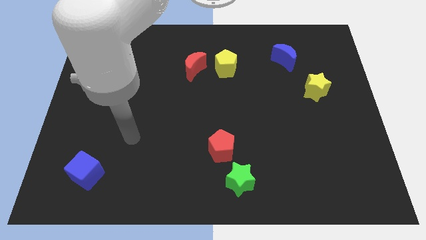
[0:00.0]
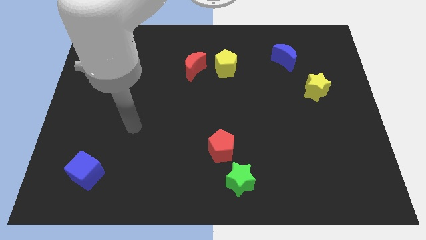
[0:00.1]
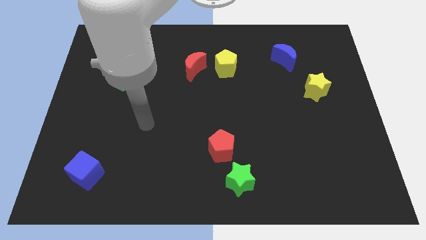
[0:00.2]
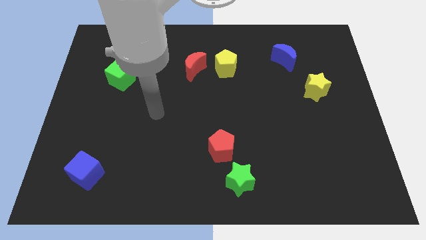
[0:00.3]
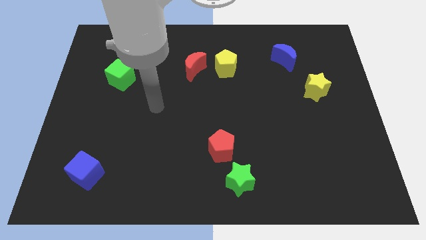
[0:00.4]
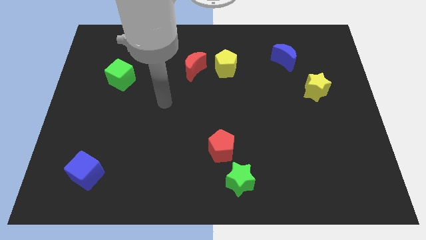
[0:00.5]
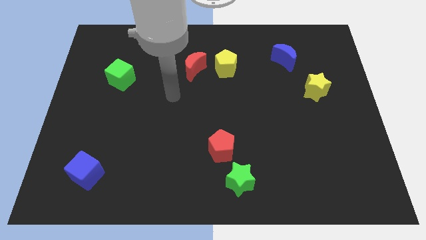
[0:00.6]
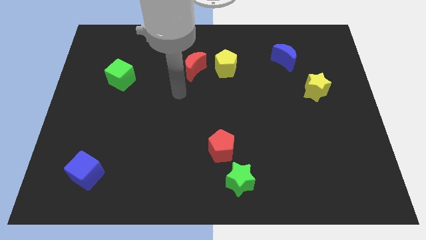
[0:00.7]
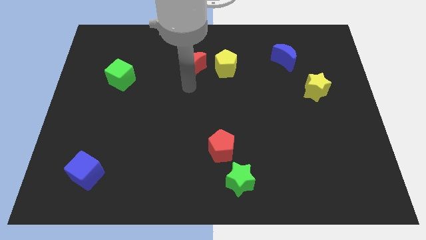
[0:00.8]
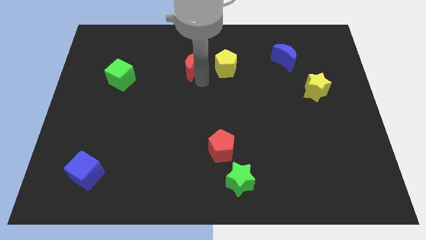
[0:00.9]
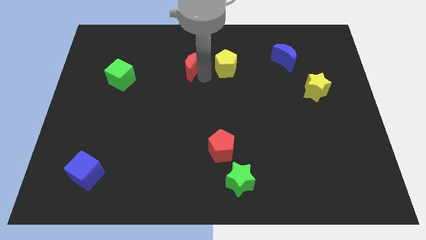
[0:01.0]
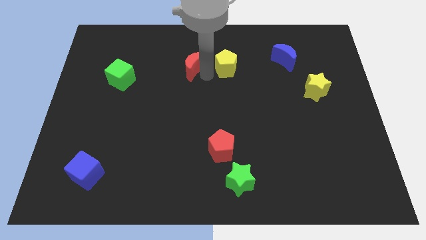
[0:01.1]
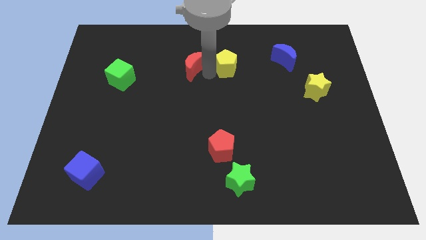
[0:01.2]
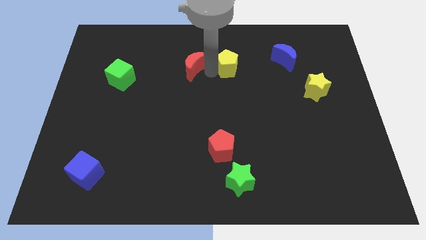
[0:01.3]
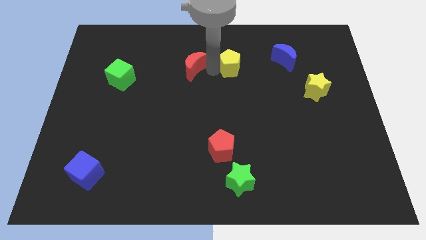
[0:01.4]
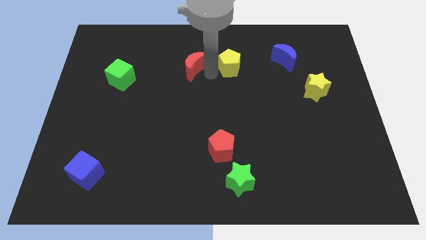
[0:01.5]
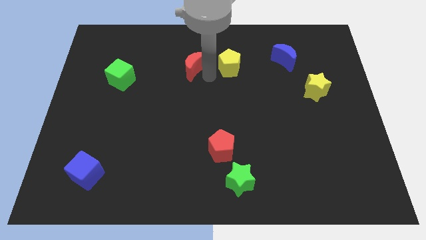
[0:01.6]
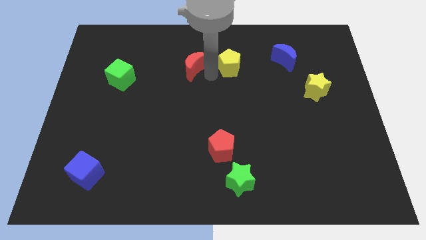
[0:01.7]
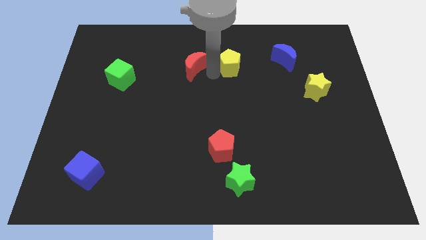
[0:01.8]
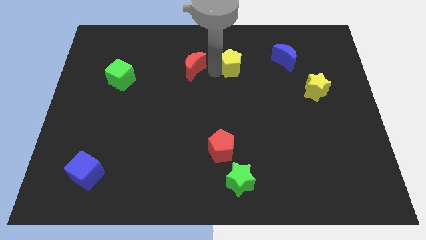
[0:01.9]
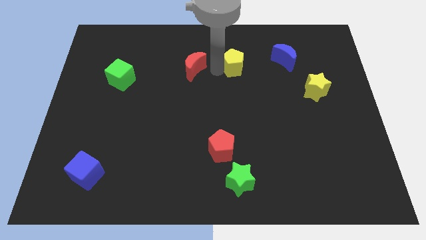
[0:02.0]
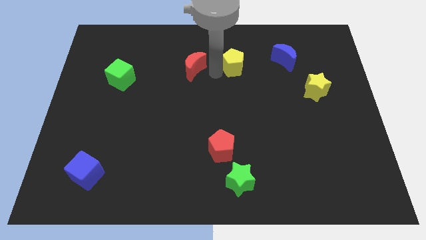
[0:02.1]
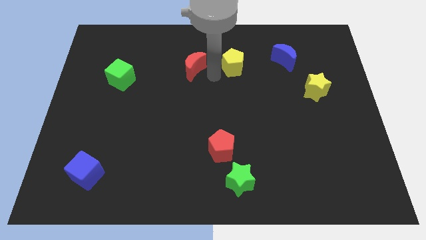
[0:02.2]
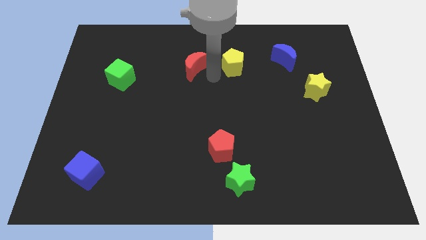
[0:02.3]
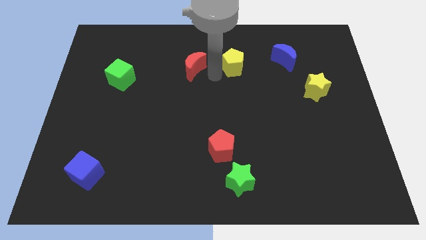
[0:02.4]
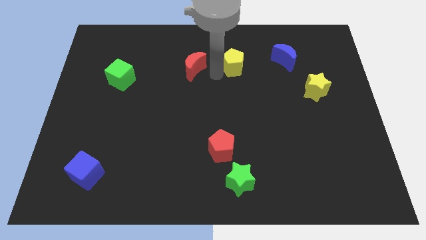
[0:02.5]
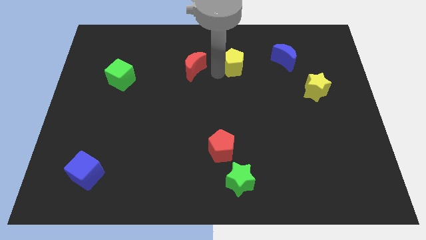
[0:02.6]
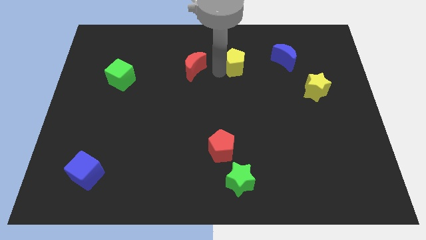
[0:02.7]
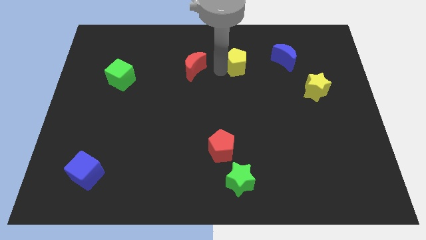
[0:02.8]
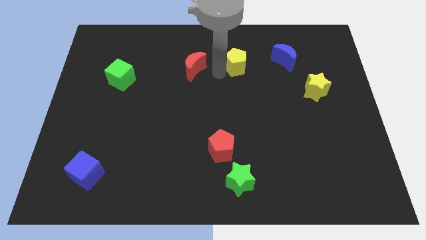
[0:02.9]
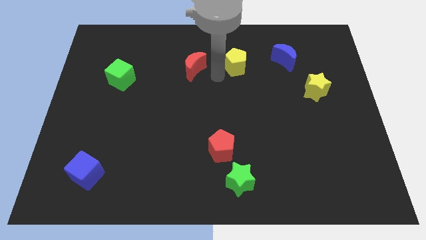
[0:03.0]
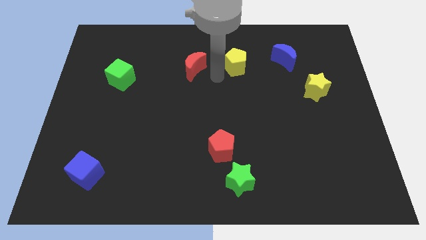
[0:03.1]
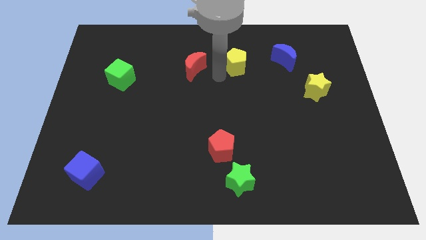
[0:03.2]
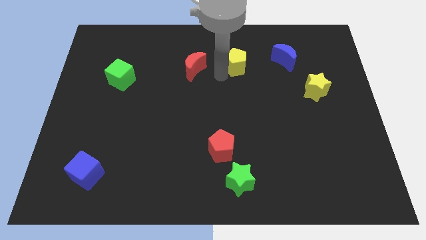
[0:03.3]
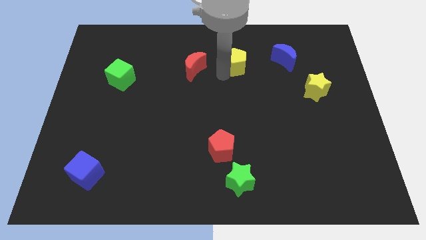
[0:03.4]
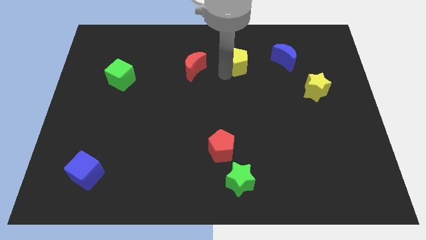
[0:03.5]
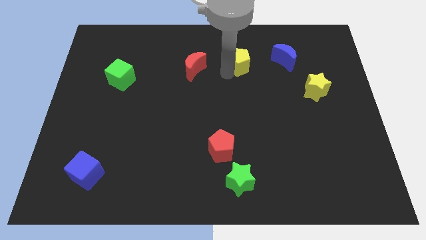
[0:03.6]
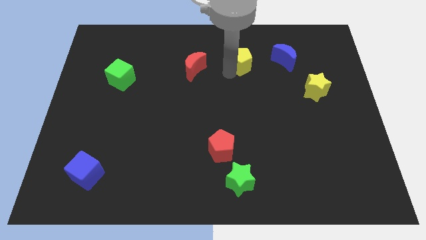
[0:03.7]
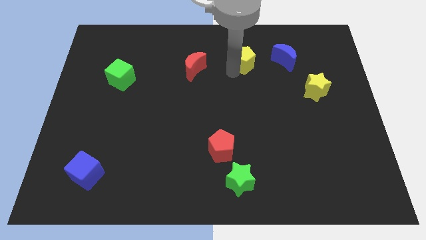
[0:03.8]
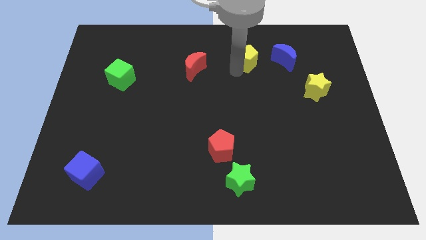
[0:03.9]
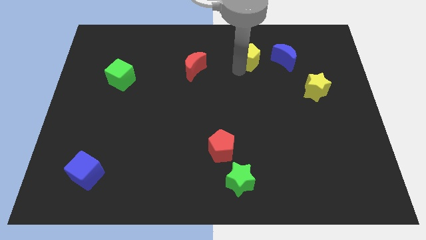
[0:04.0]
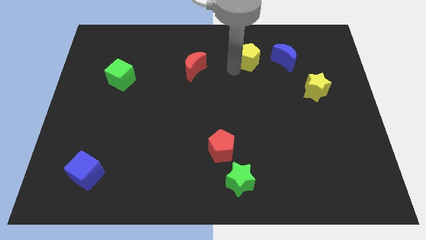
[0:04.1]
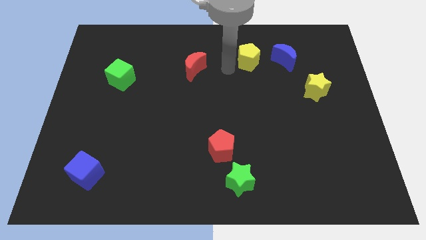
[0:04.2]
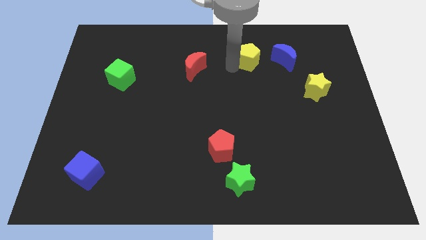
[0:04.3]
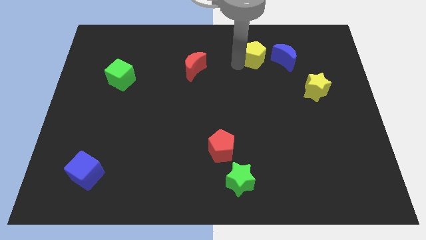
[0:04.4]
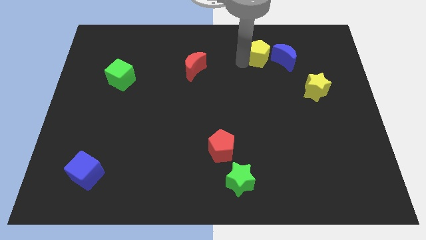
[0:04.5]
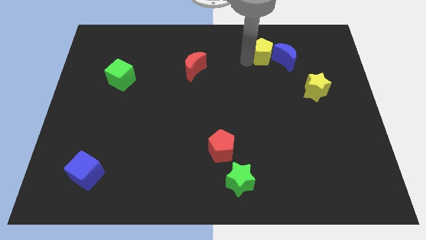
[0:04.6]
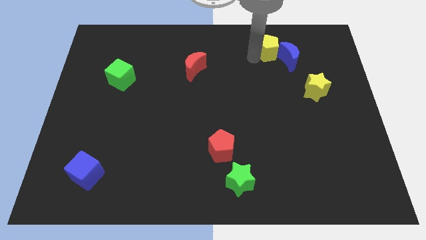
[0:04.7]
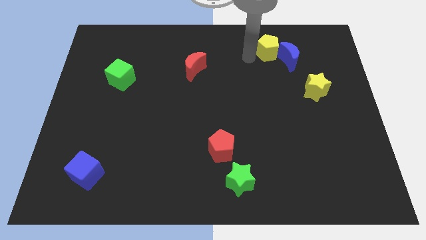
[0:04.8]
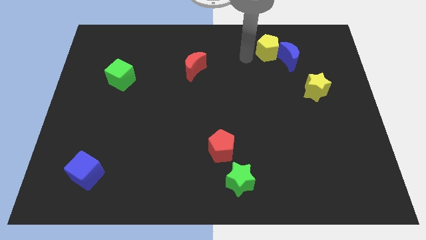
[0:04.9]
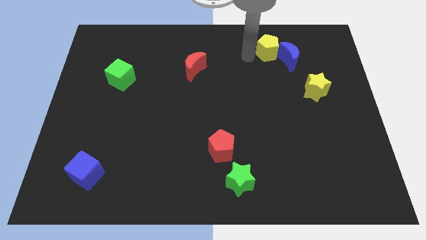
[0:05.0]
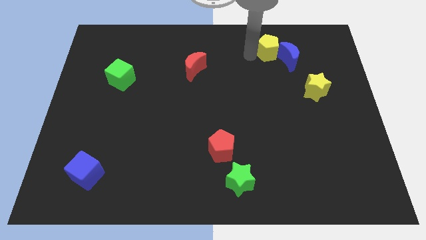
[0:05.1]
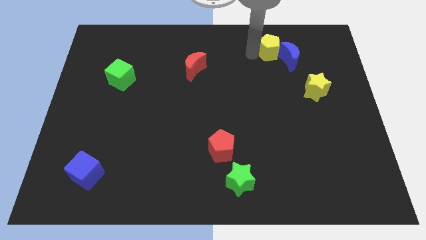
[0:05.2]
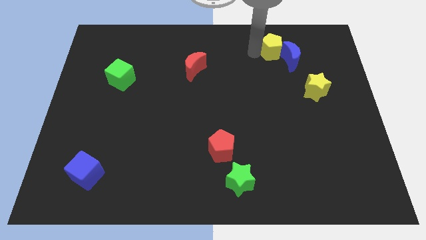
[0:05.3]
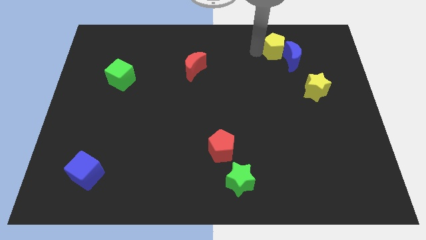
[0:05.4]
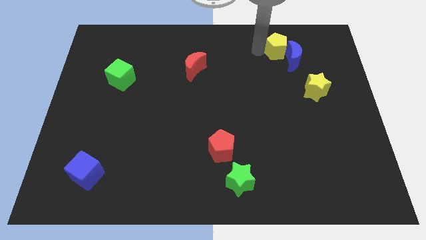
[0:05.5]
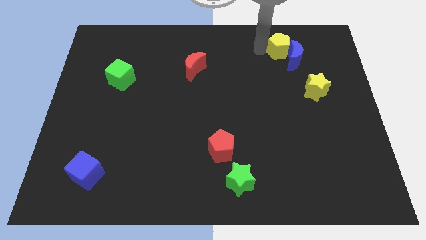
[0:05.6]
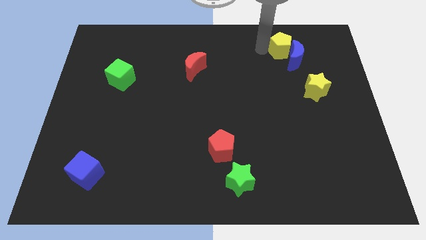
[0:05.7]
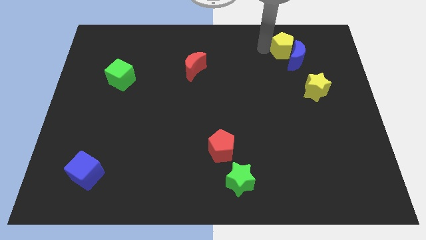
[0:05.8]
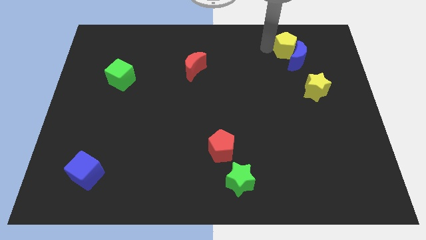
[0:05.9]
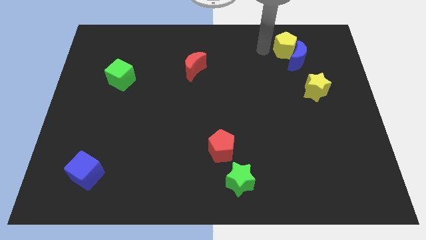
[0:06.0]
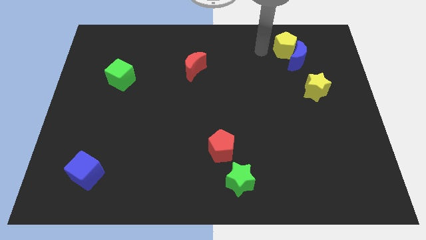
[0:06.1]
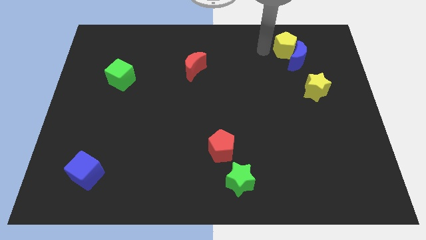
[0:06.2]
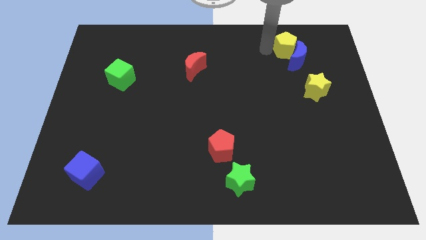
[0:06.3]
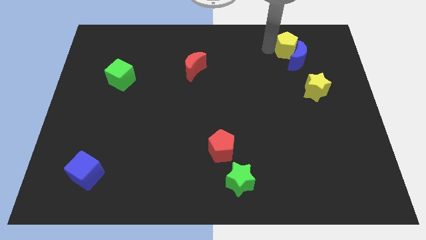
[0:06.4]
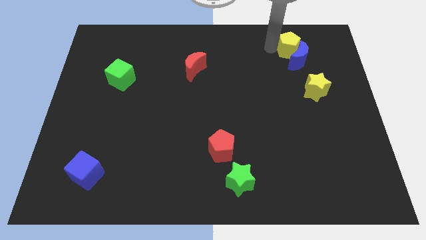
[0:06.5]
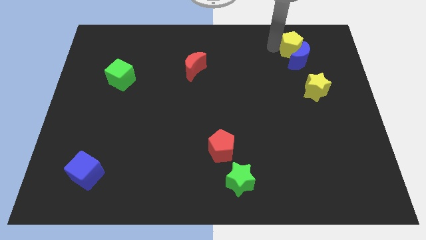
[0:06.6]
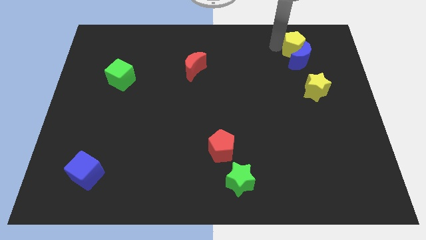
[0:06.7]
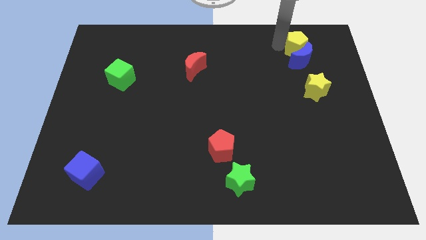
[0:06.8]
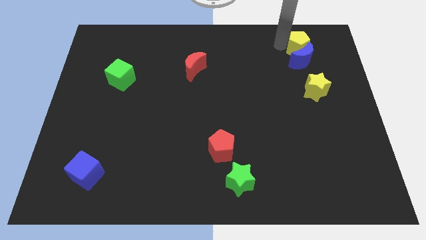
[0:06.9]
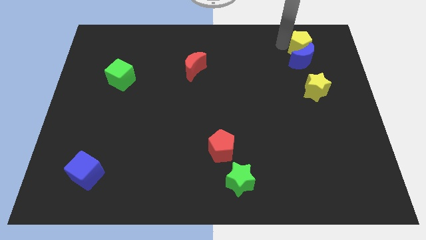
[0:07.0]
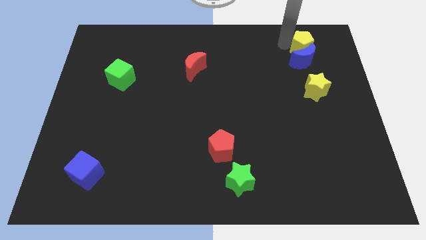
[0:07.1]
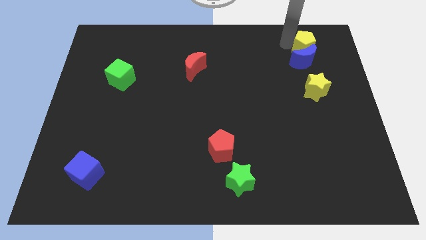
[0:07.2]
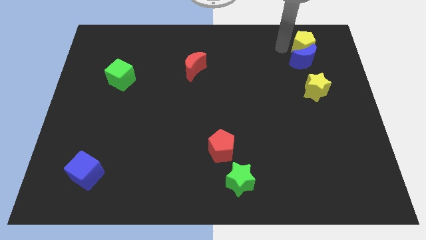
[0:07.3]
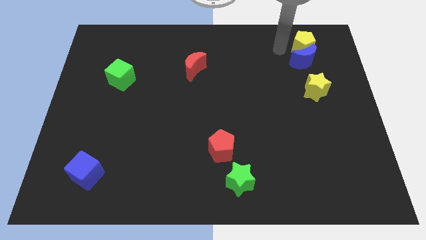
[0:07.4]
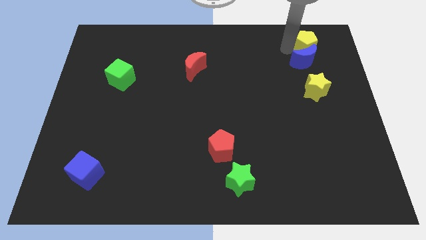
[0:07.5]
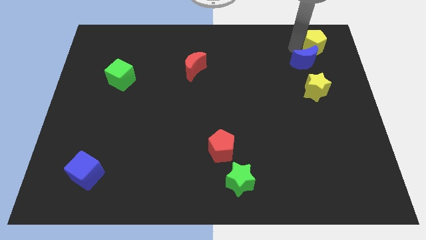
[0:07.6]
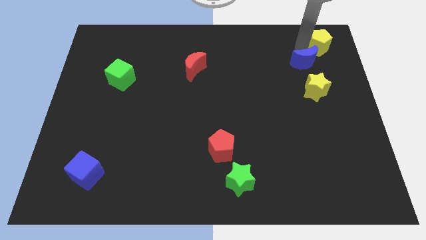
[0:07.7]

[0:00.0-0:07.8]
push the yellow pentagon to the upper right corner
